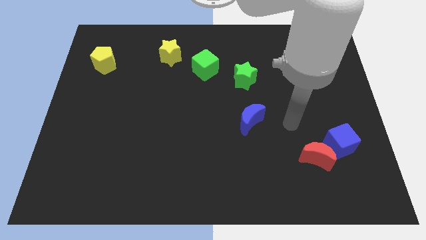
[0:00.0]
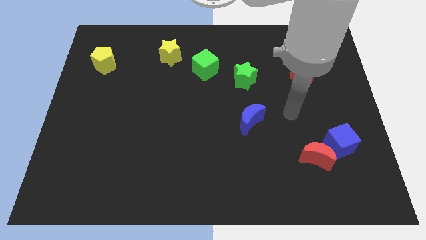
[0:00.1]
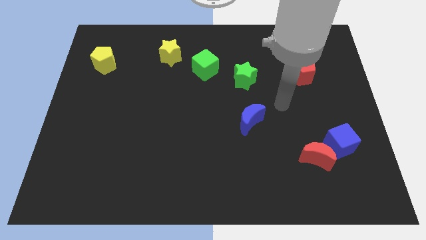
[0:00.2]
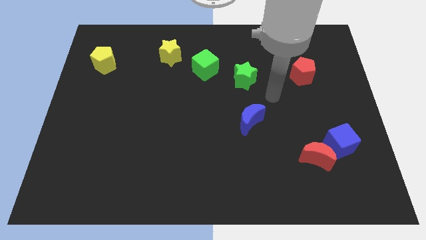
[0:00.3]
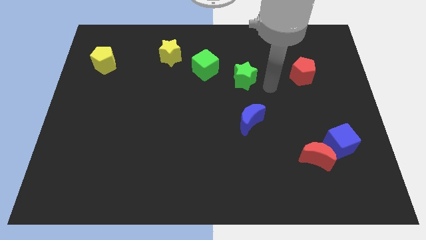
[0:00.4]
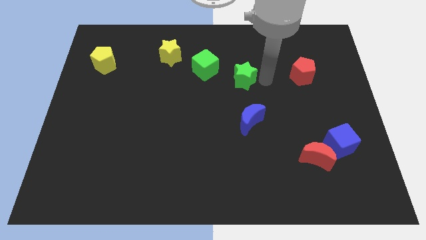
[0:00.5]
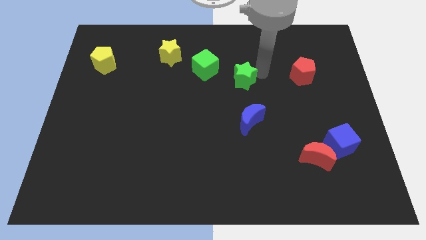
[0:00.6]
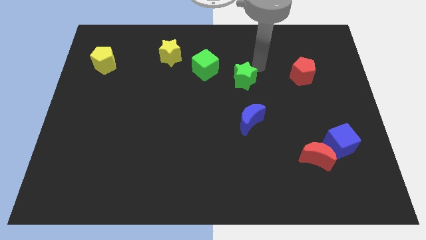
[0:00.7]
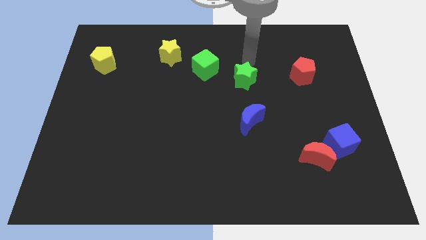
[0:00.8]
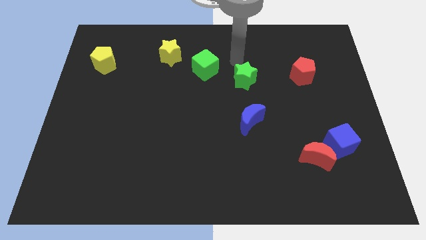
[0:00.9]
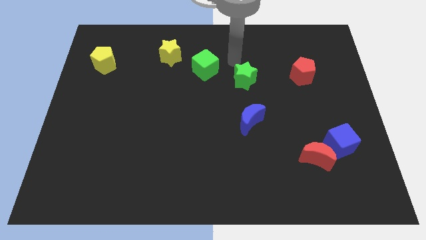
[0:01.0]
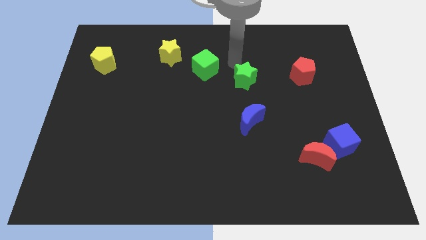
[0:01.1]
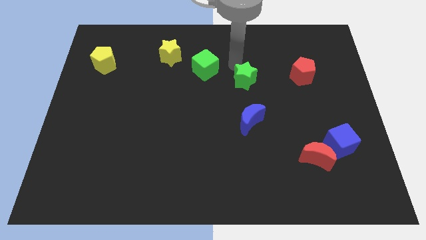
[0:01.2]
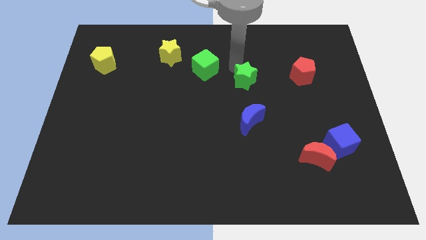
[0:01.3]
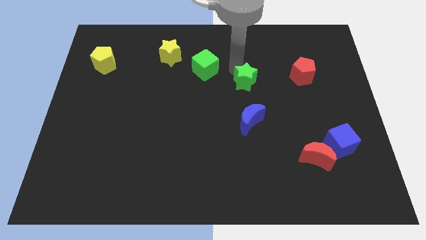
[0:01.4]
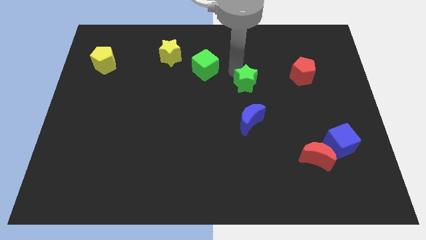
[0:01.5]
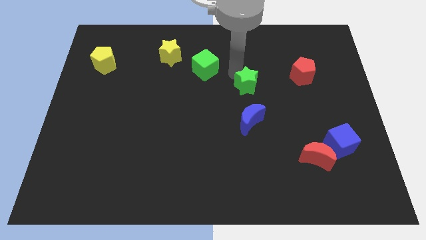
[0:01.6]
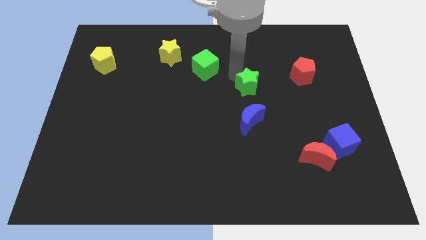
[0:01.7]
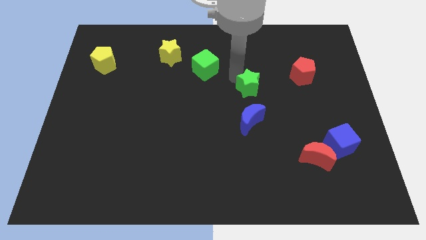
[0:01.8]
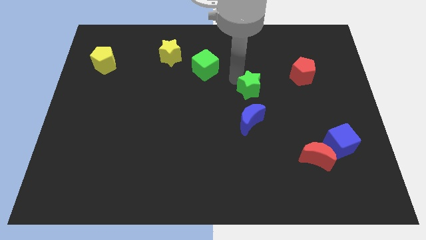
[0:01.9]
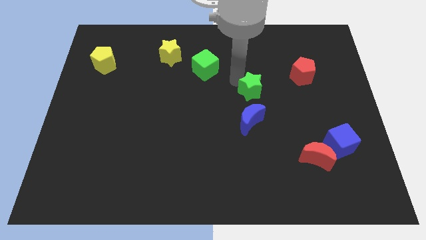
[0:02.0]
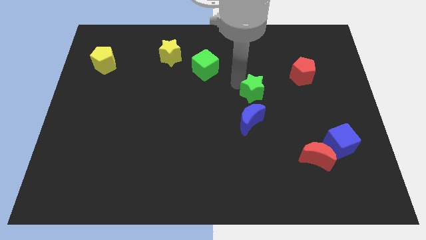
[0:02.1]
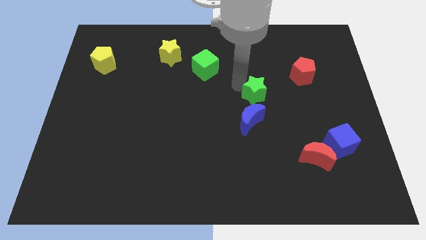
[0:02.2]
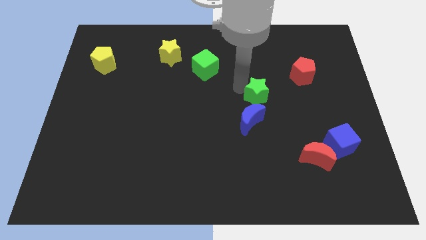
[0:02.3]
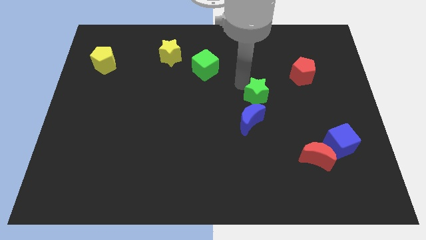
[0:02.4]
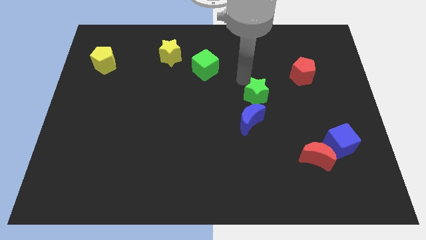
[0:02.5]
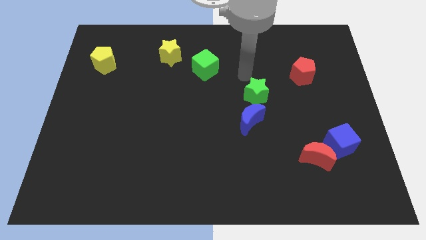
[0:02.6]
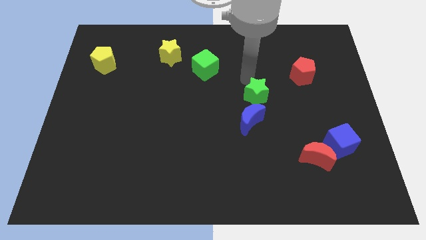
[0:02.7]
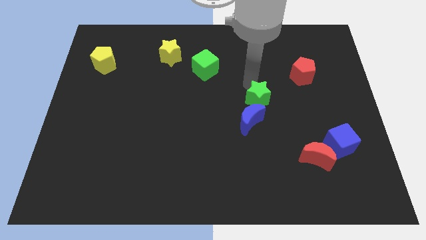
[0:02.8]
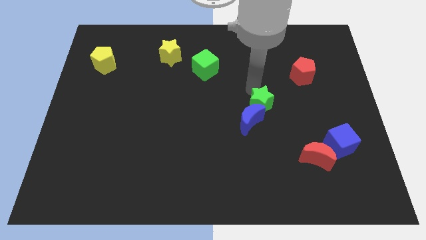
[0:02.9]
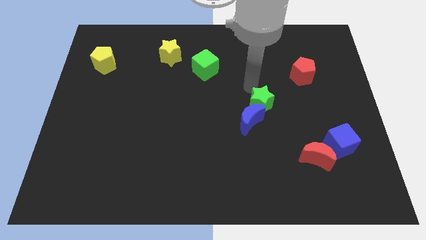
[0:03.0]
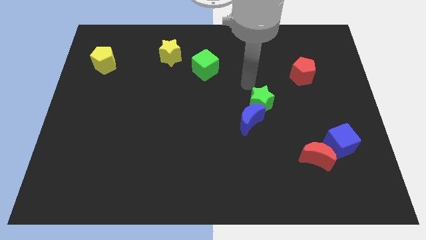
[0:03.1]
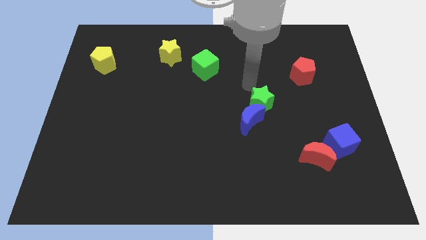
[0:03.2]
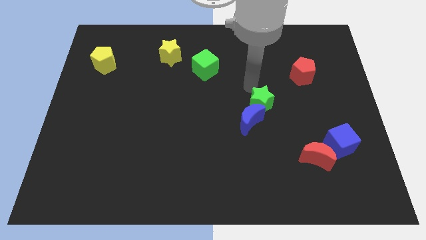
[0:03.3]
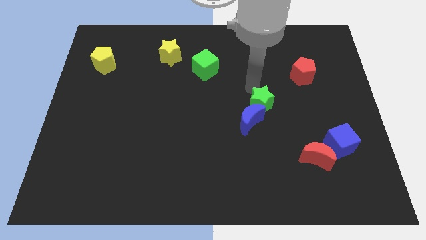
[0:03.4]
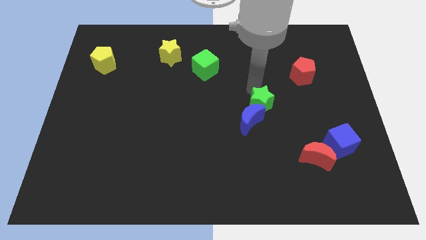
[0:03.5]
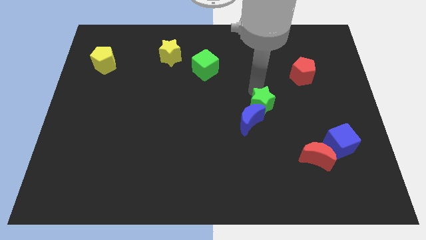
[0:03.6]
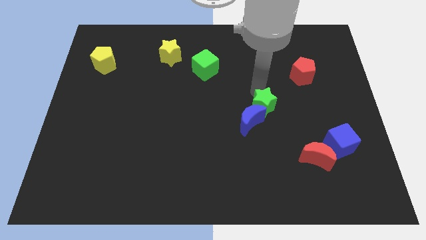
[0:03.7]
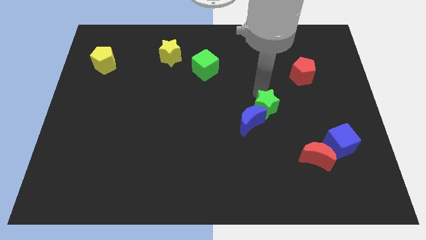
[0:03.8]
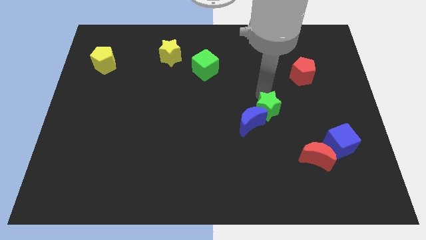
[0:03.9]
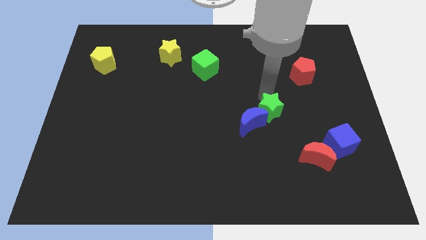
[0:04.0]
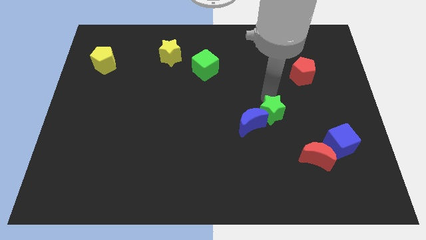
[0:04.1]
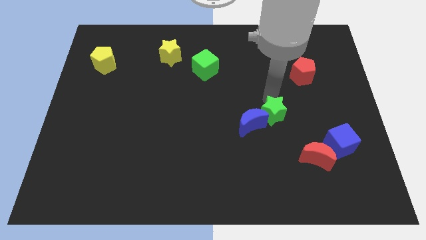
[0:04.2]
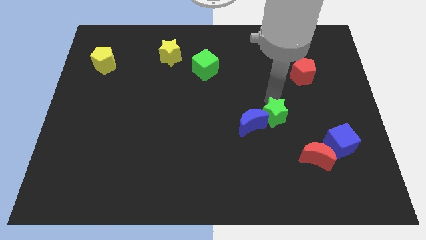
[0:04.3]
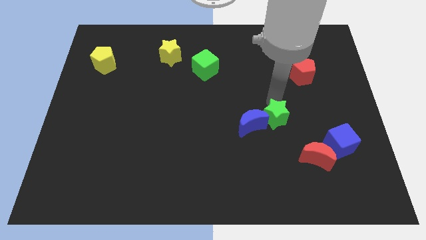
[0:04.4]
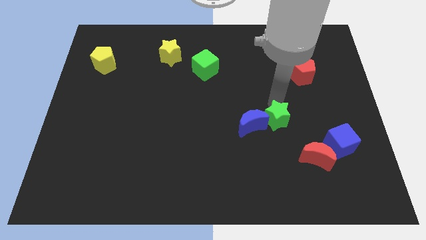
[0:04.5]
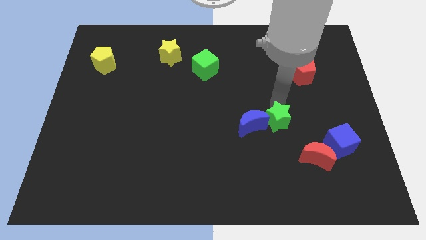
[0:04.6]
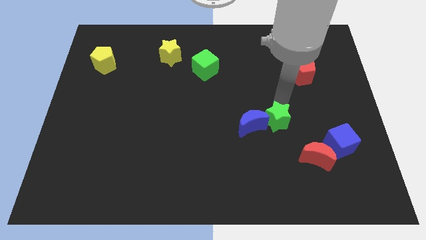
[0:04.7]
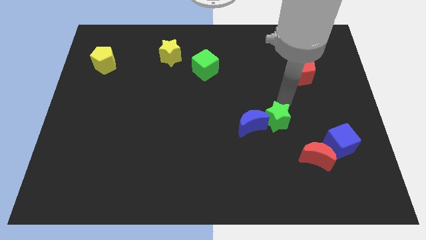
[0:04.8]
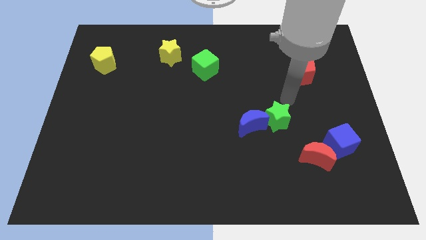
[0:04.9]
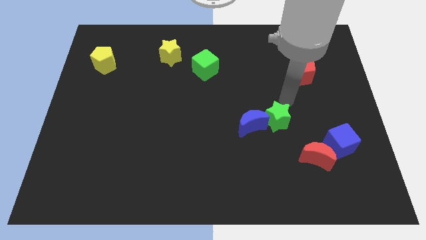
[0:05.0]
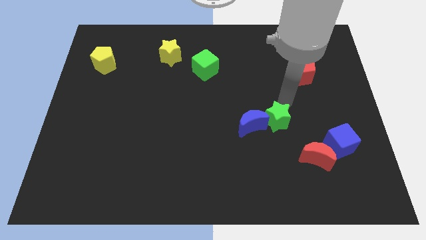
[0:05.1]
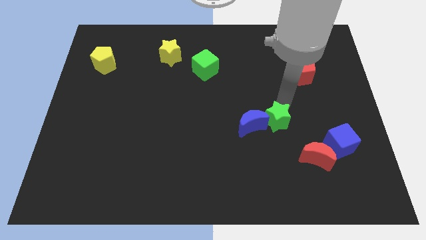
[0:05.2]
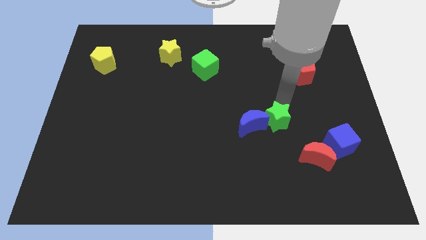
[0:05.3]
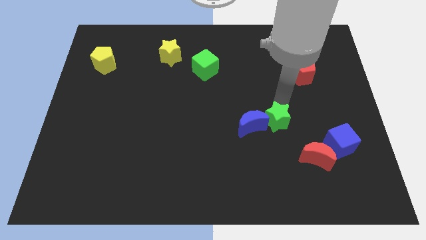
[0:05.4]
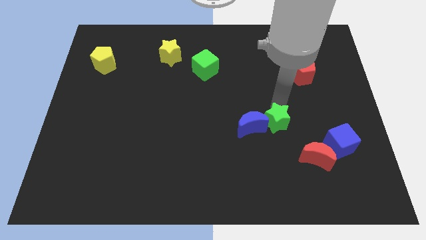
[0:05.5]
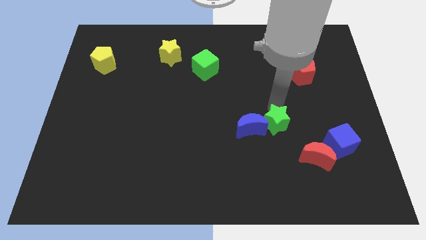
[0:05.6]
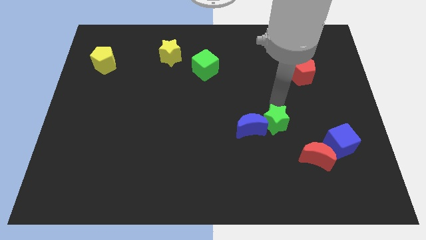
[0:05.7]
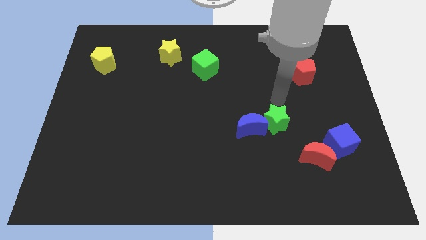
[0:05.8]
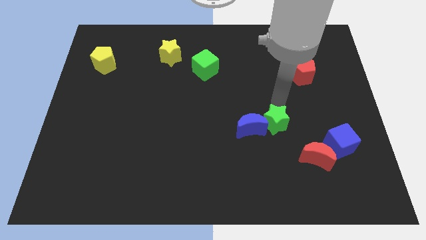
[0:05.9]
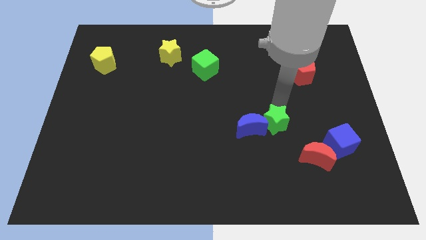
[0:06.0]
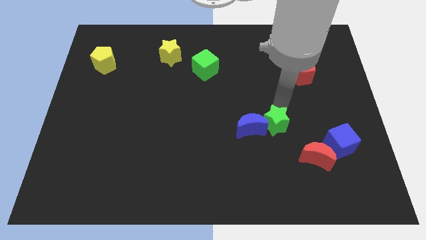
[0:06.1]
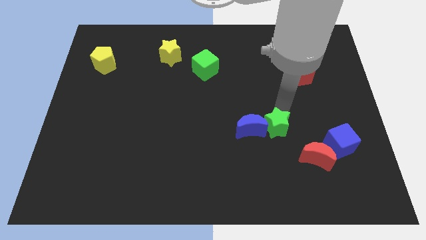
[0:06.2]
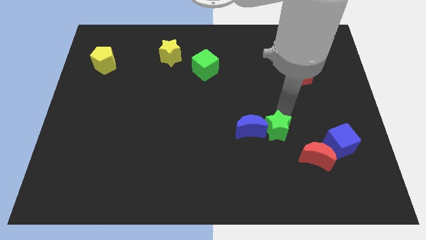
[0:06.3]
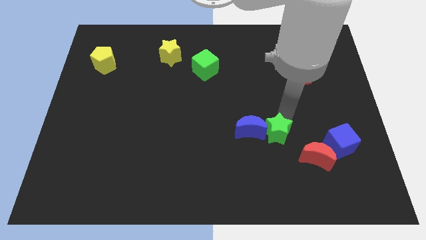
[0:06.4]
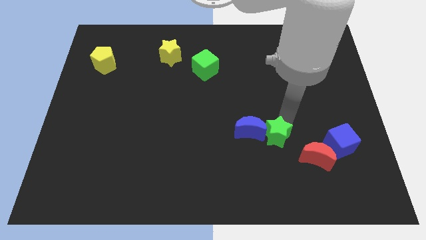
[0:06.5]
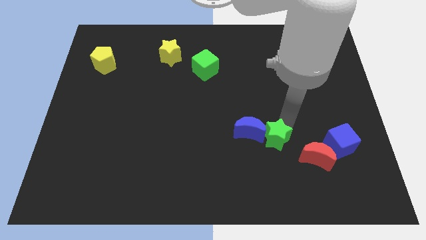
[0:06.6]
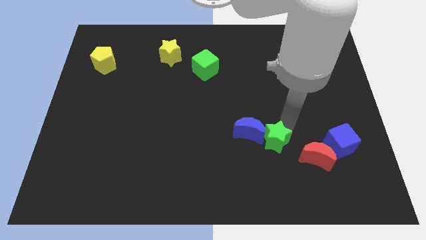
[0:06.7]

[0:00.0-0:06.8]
move the green star to the left side of the red moon

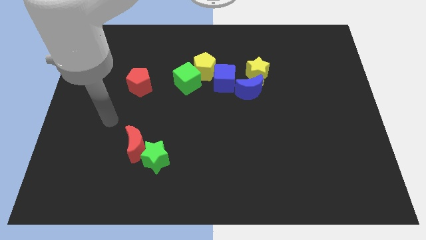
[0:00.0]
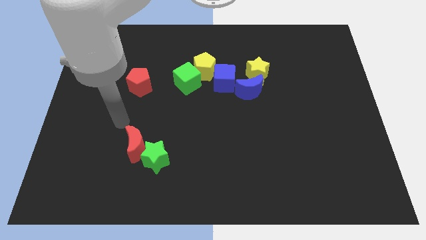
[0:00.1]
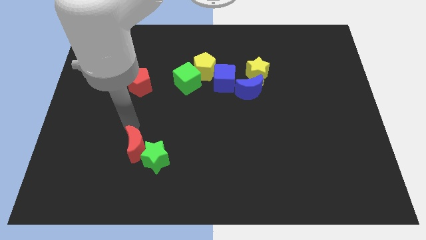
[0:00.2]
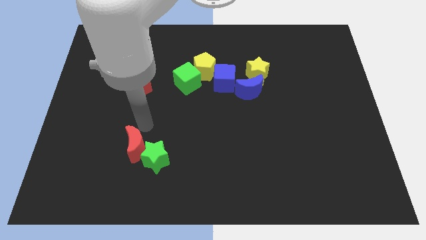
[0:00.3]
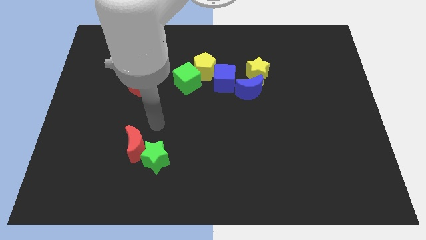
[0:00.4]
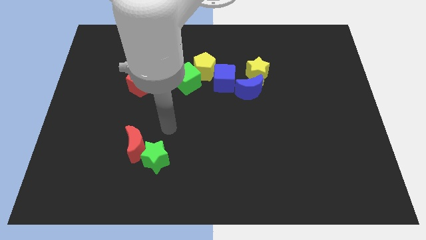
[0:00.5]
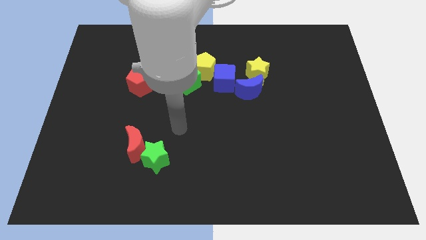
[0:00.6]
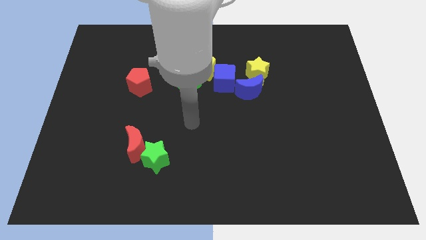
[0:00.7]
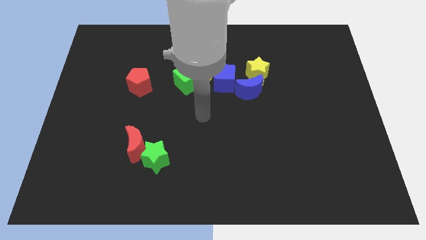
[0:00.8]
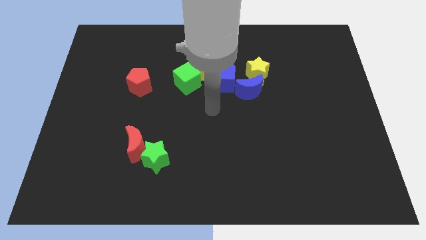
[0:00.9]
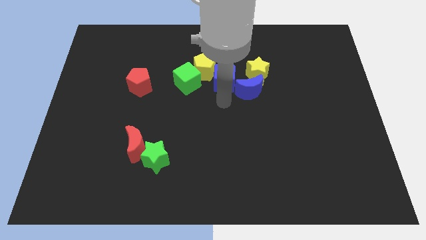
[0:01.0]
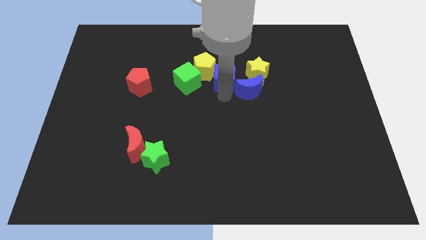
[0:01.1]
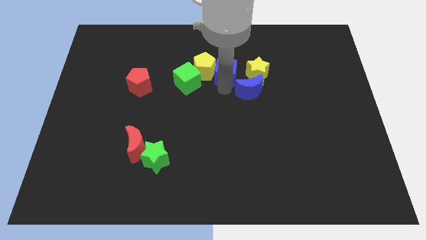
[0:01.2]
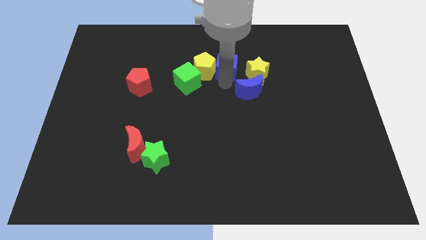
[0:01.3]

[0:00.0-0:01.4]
move the blue cube to the top right of the yellow pentagon
